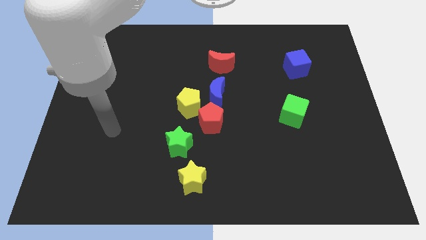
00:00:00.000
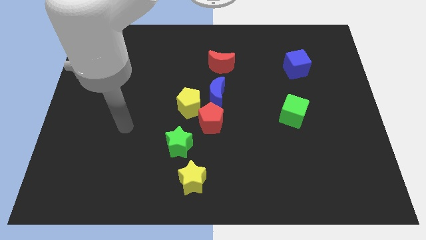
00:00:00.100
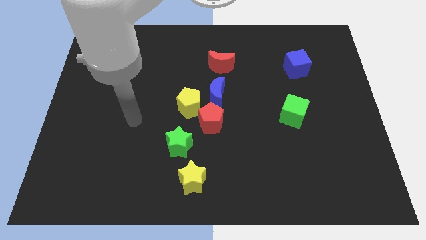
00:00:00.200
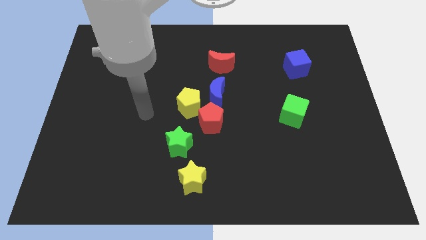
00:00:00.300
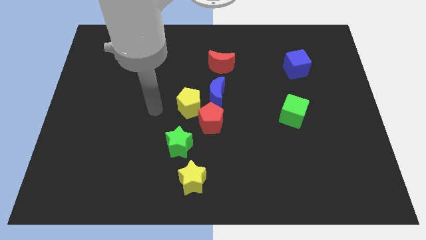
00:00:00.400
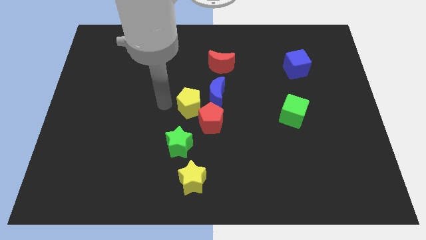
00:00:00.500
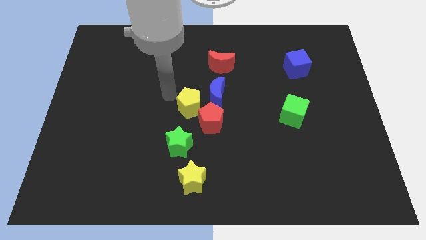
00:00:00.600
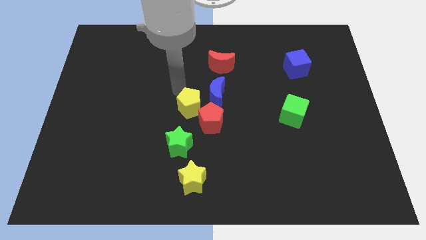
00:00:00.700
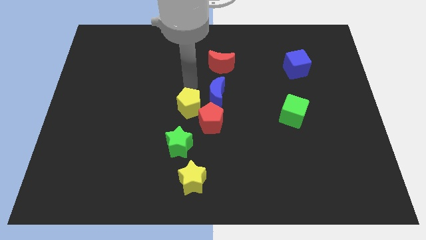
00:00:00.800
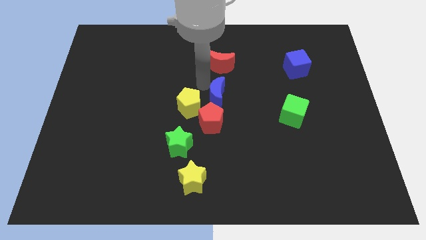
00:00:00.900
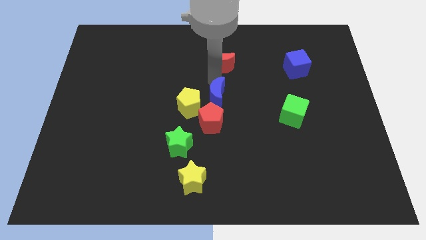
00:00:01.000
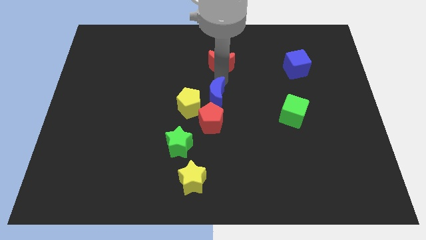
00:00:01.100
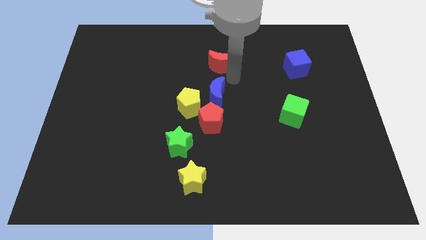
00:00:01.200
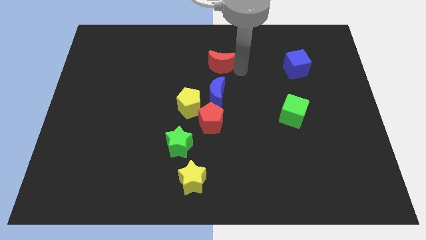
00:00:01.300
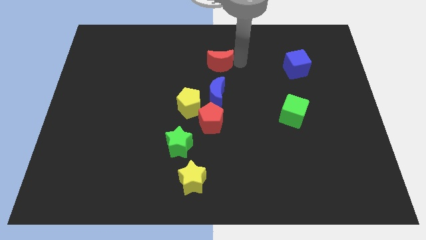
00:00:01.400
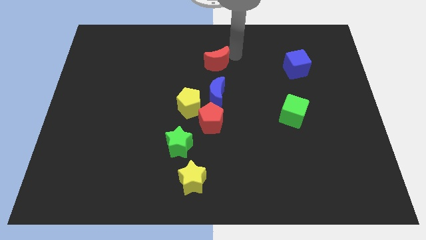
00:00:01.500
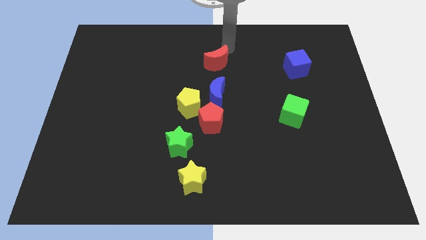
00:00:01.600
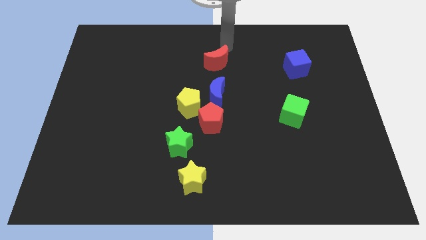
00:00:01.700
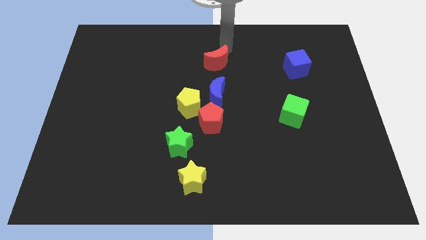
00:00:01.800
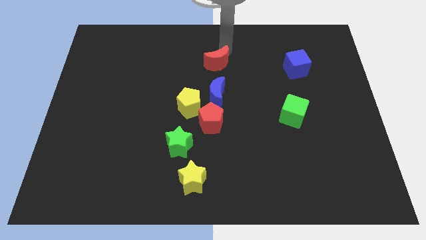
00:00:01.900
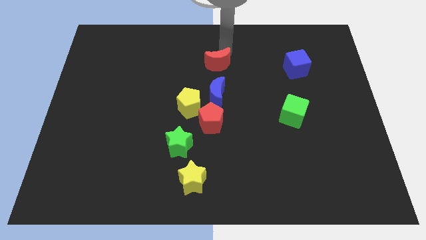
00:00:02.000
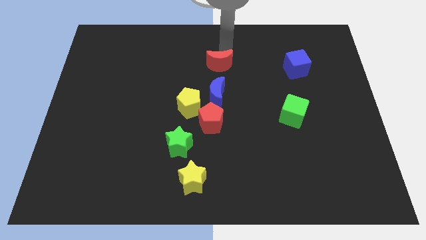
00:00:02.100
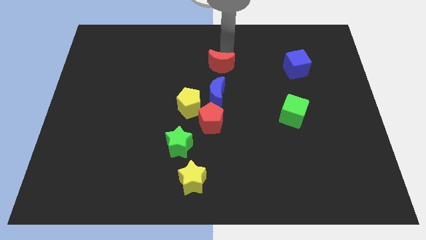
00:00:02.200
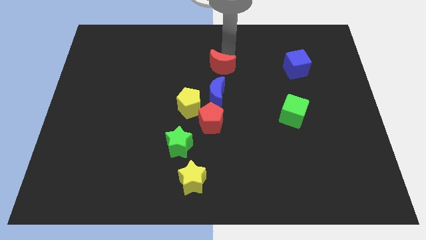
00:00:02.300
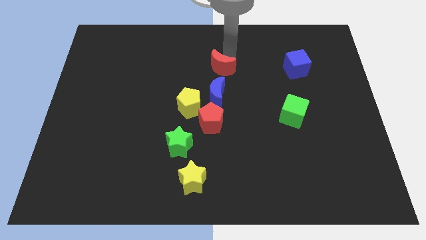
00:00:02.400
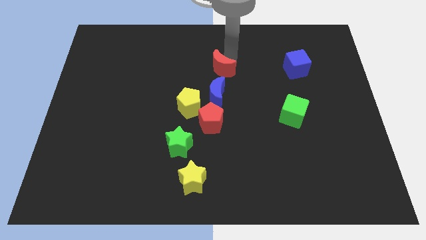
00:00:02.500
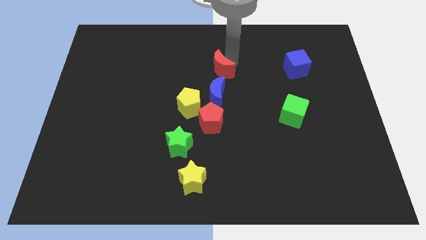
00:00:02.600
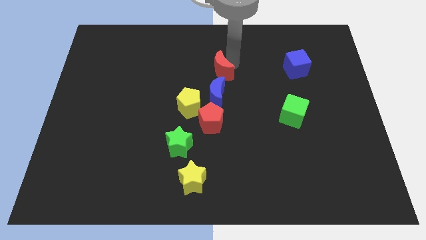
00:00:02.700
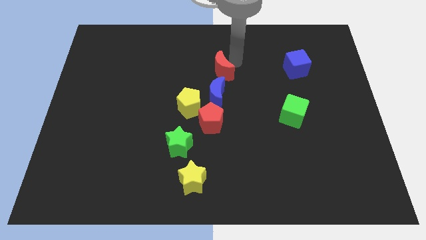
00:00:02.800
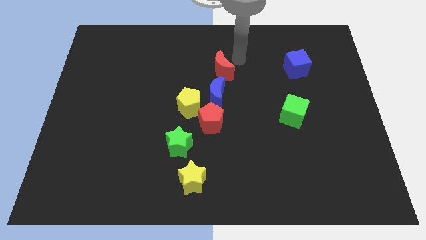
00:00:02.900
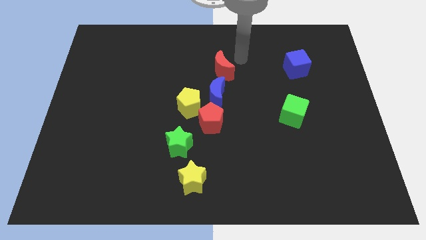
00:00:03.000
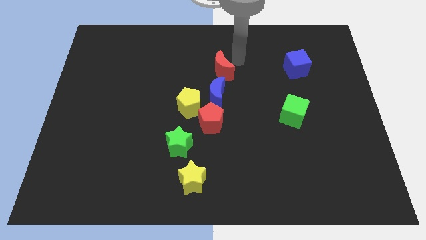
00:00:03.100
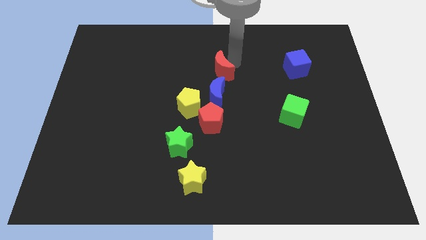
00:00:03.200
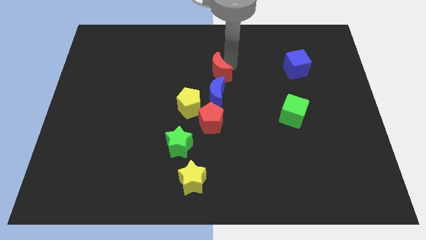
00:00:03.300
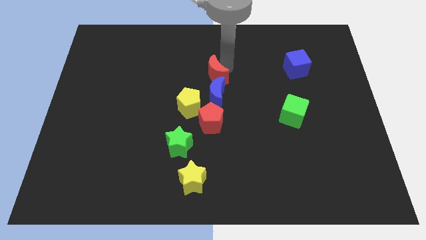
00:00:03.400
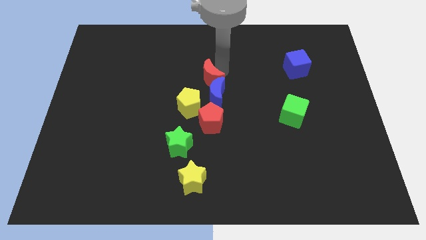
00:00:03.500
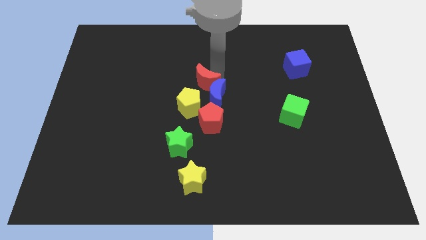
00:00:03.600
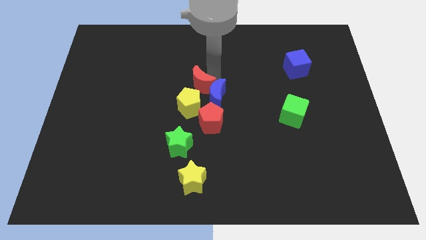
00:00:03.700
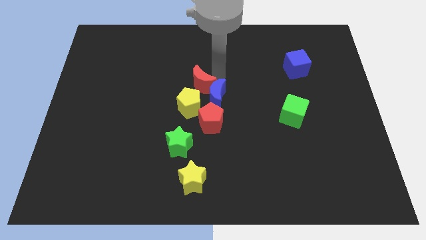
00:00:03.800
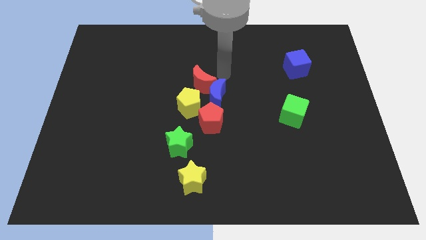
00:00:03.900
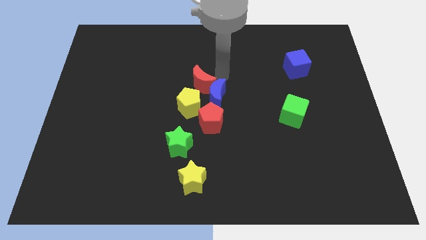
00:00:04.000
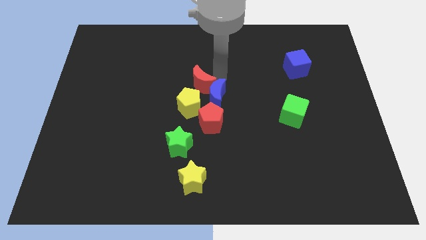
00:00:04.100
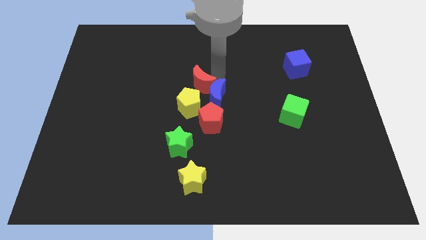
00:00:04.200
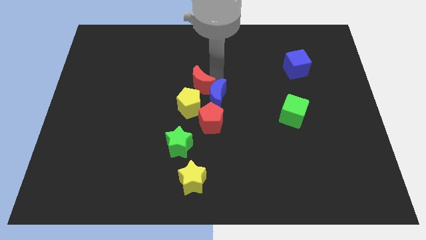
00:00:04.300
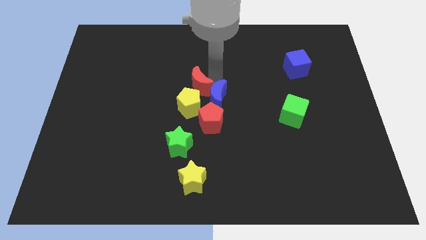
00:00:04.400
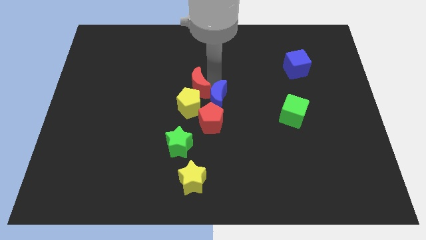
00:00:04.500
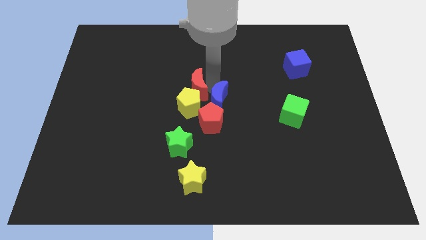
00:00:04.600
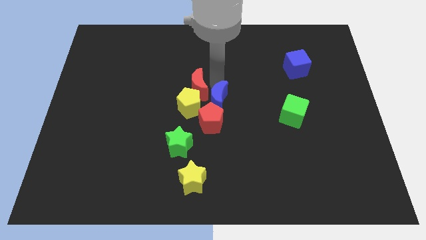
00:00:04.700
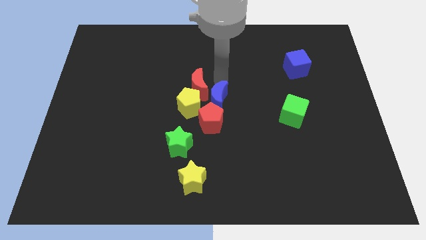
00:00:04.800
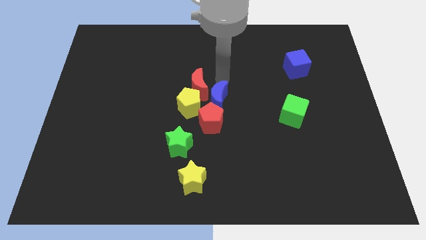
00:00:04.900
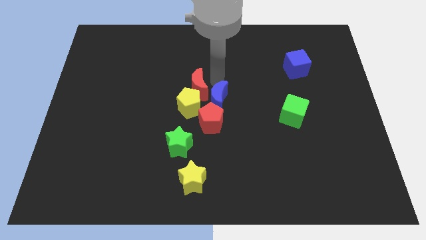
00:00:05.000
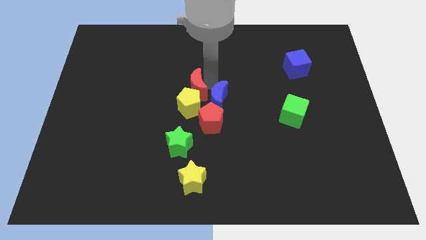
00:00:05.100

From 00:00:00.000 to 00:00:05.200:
push the red moon to the top left side of the red pentagon

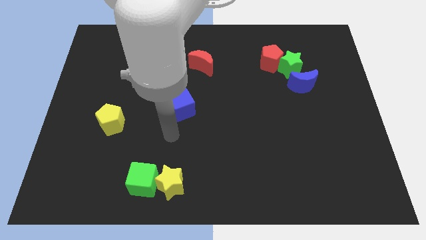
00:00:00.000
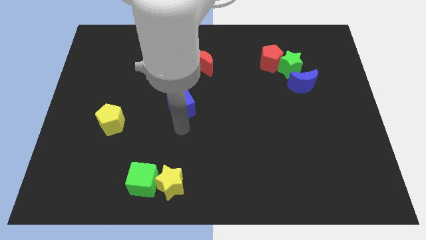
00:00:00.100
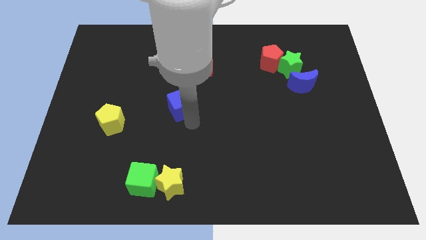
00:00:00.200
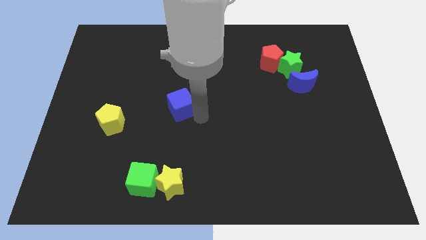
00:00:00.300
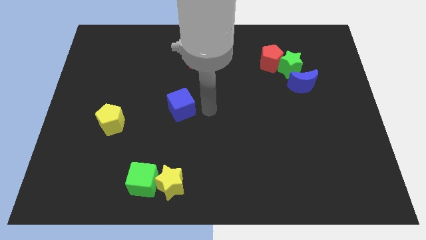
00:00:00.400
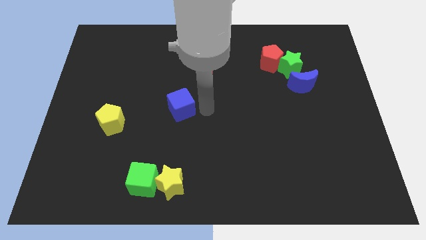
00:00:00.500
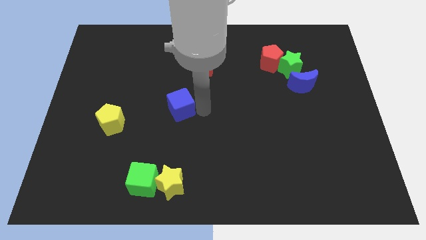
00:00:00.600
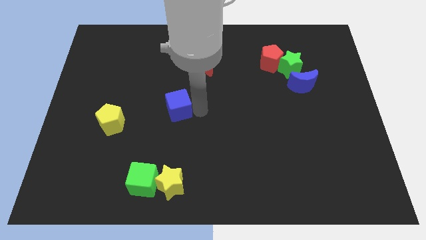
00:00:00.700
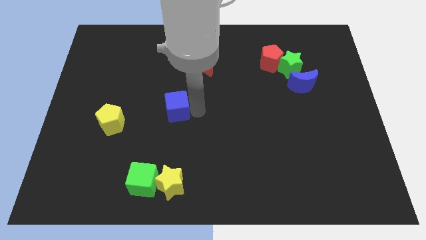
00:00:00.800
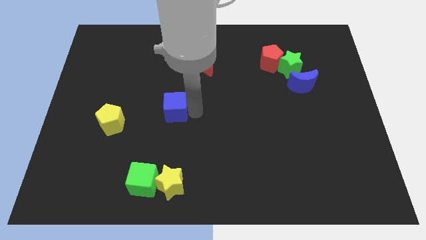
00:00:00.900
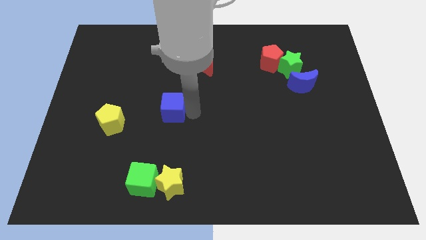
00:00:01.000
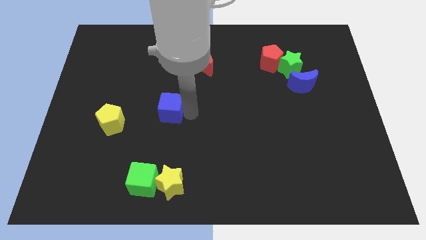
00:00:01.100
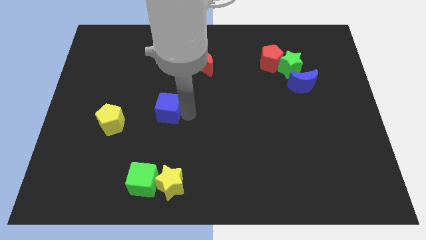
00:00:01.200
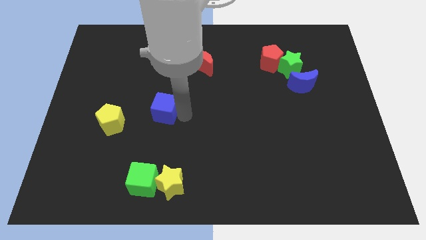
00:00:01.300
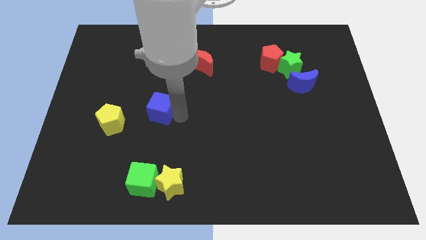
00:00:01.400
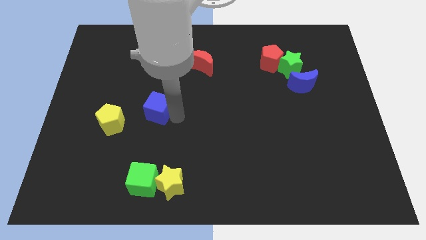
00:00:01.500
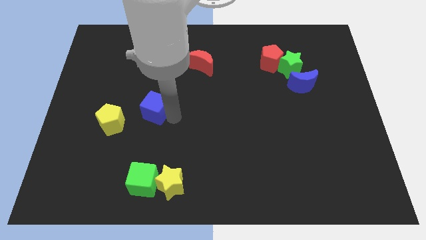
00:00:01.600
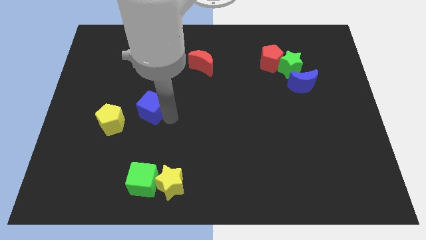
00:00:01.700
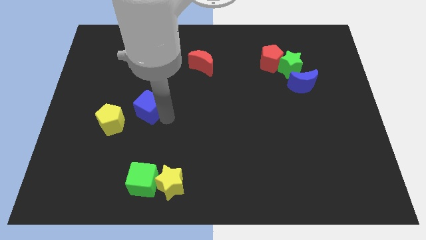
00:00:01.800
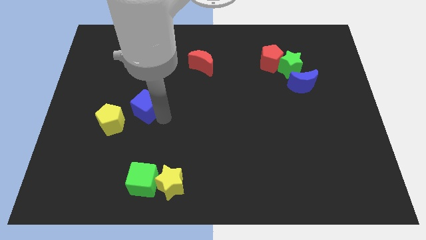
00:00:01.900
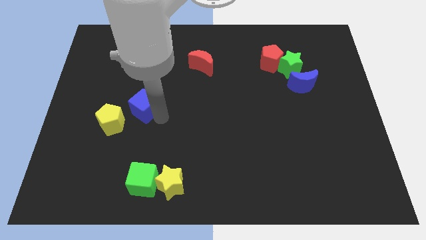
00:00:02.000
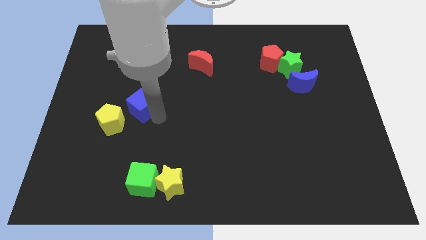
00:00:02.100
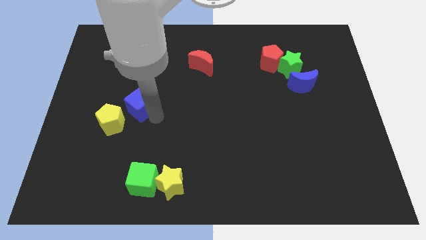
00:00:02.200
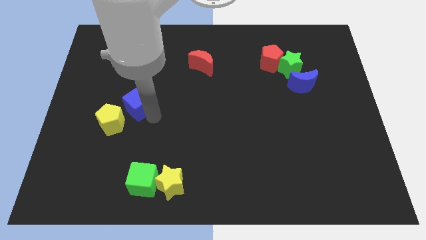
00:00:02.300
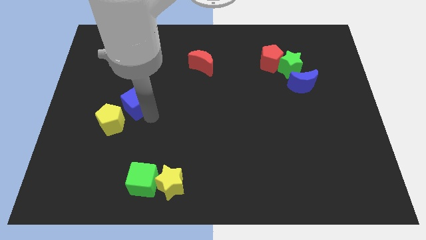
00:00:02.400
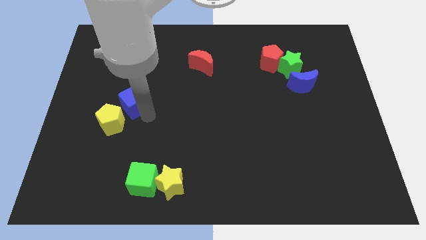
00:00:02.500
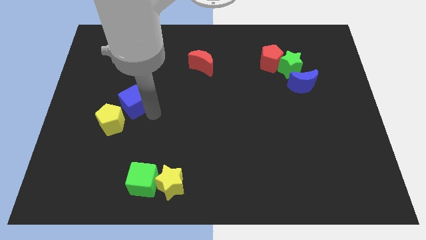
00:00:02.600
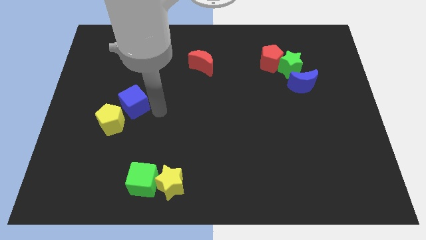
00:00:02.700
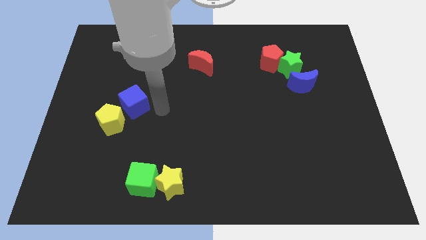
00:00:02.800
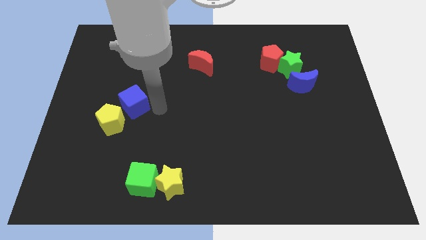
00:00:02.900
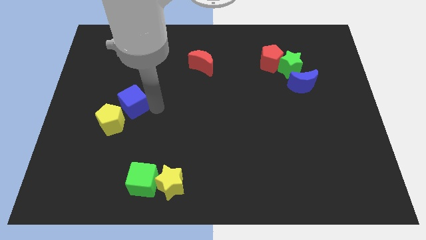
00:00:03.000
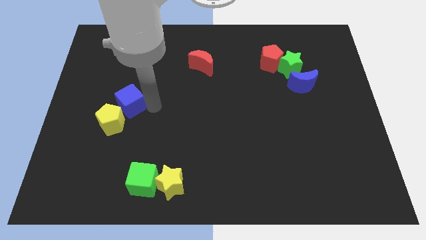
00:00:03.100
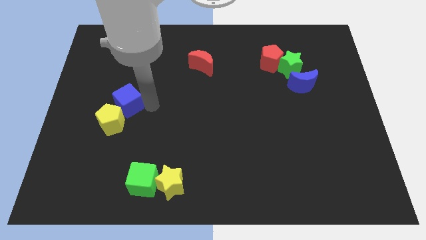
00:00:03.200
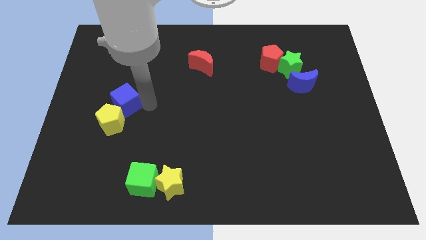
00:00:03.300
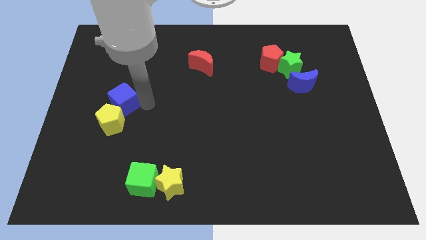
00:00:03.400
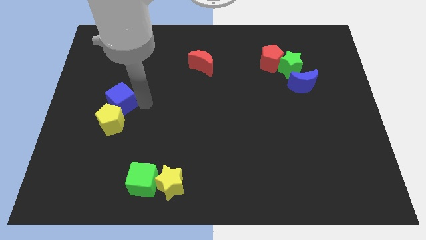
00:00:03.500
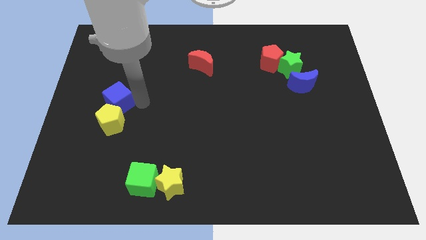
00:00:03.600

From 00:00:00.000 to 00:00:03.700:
slide the blue cube to the top left of the yellow pentagon
